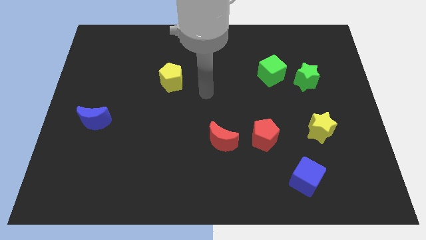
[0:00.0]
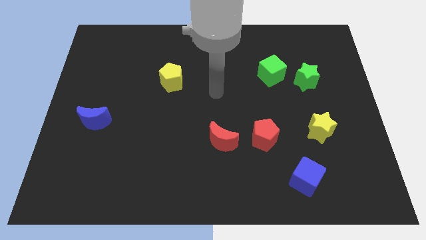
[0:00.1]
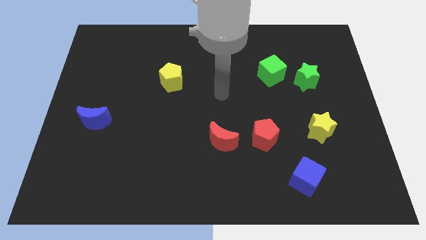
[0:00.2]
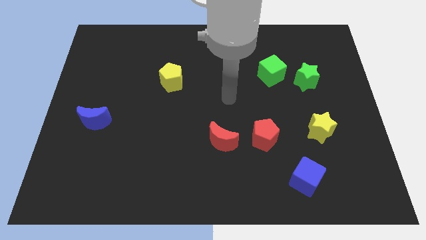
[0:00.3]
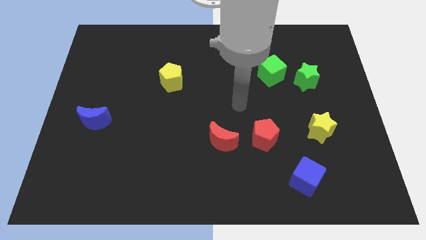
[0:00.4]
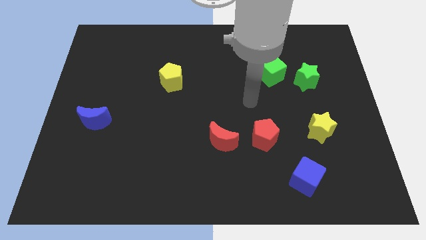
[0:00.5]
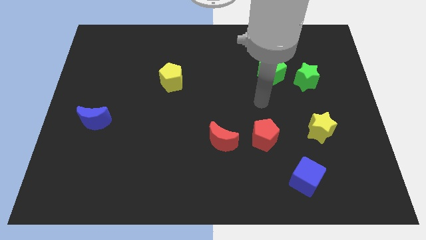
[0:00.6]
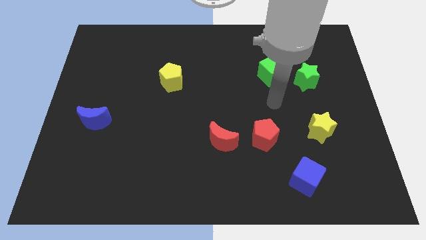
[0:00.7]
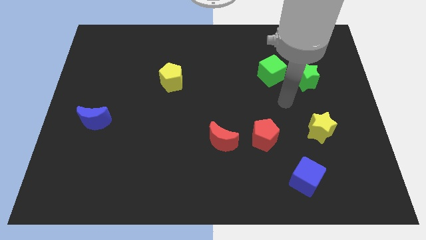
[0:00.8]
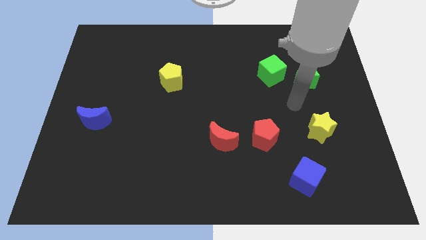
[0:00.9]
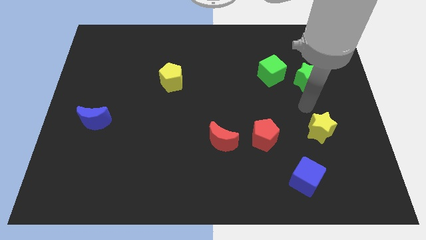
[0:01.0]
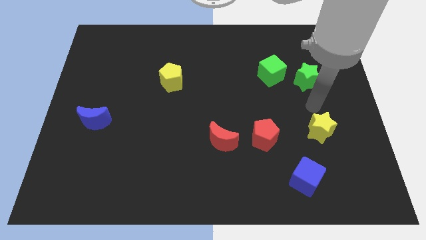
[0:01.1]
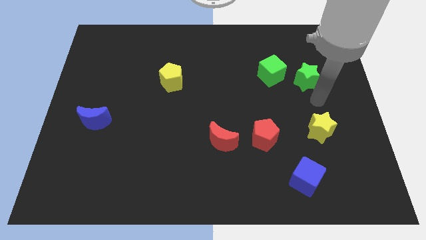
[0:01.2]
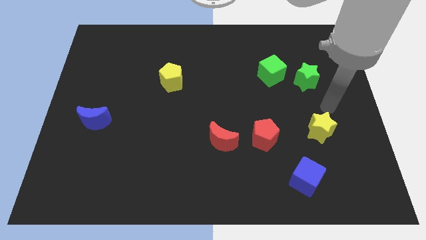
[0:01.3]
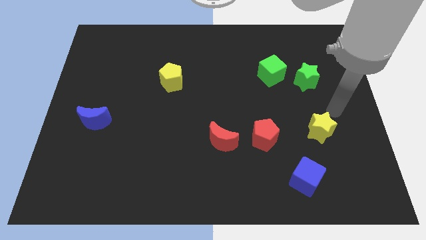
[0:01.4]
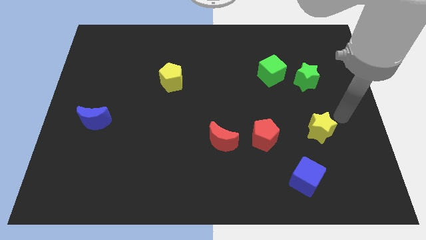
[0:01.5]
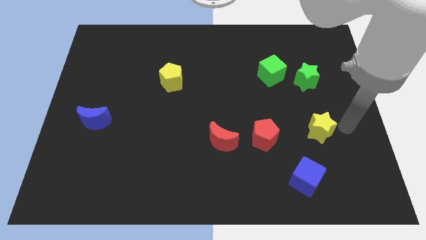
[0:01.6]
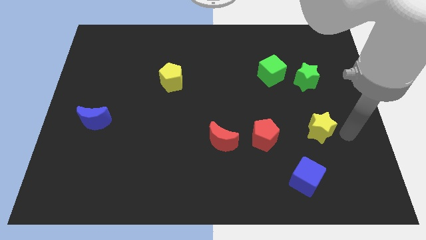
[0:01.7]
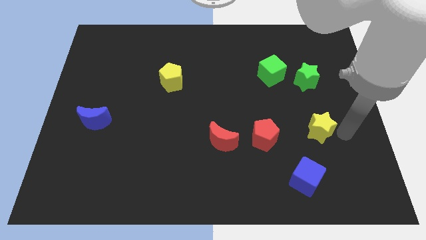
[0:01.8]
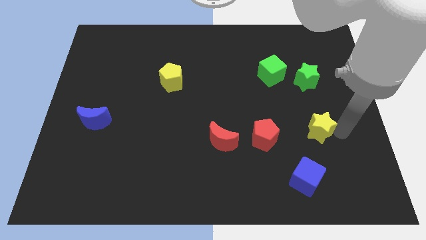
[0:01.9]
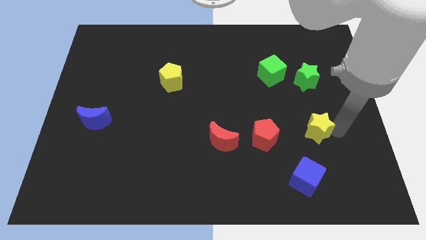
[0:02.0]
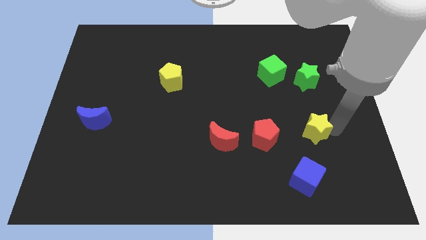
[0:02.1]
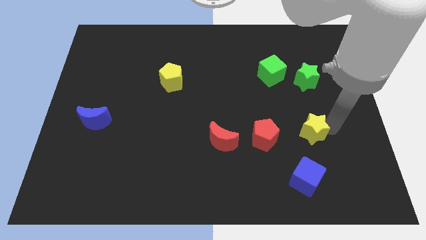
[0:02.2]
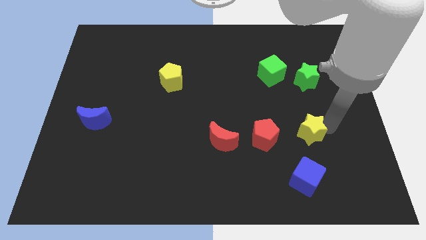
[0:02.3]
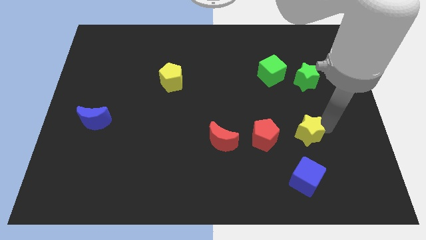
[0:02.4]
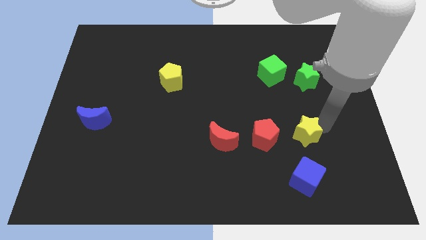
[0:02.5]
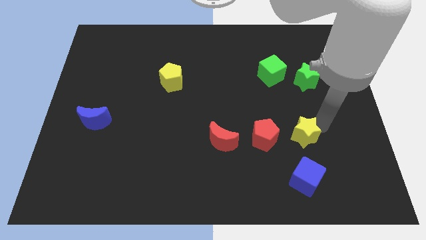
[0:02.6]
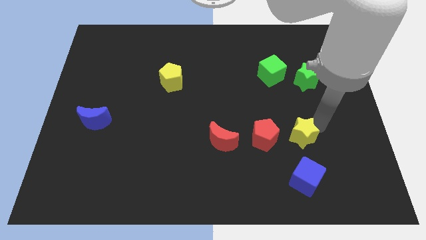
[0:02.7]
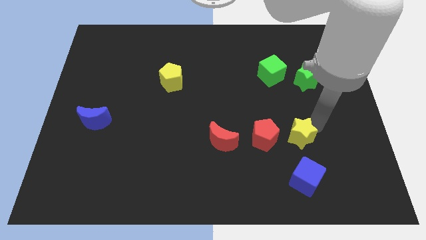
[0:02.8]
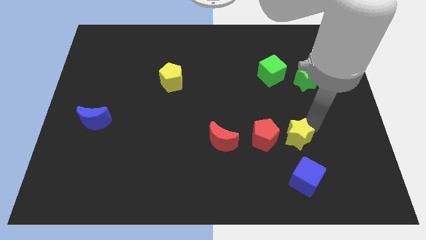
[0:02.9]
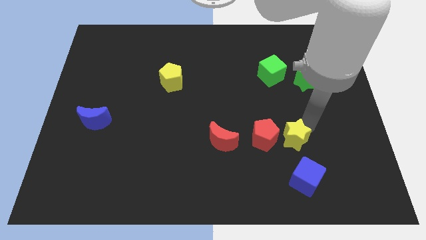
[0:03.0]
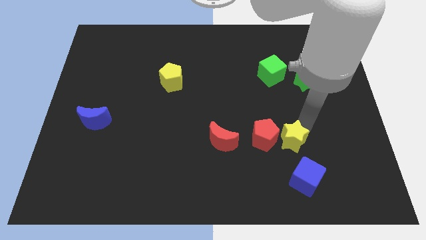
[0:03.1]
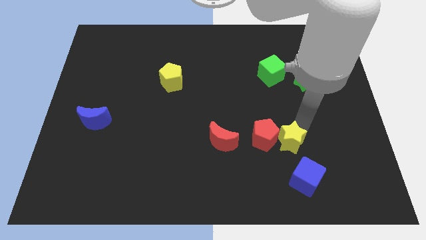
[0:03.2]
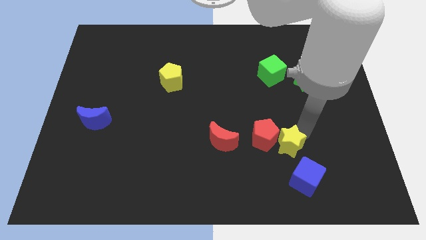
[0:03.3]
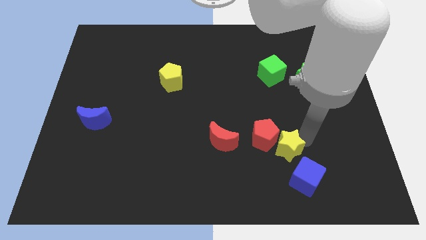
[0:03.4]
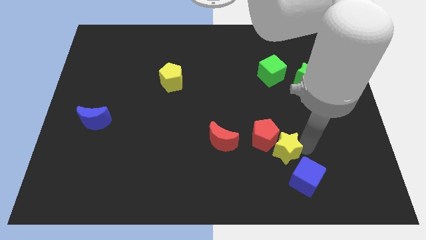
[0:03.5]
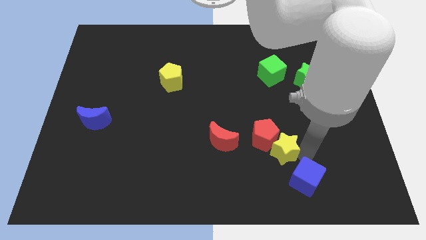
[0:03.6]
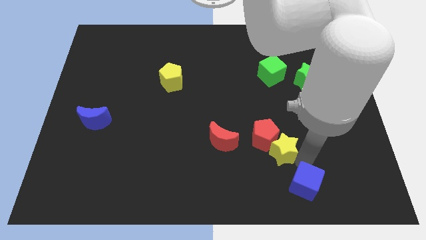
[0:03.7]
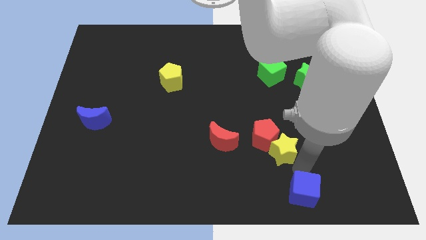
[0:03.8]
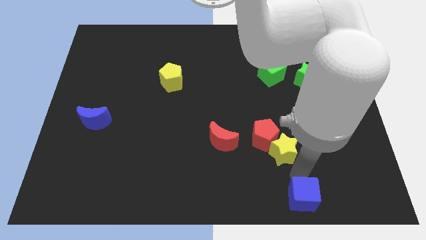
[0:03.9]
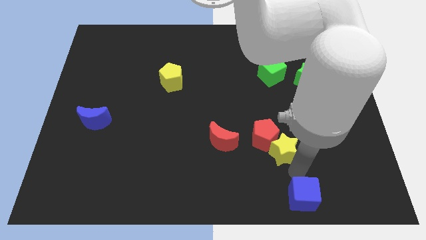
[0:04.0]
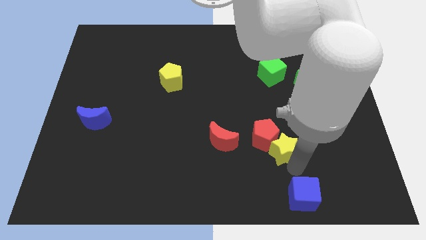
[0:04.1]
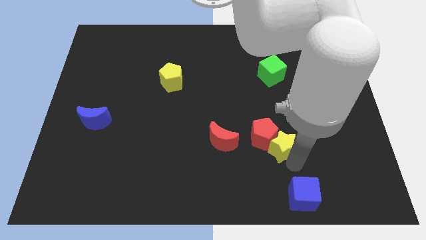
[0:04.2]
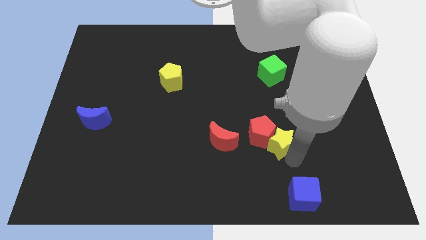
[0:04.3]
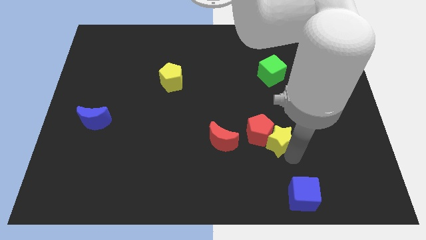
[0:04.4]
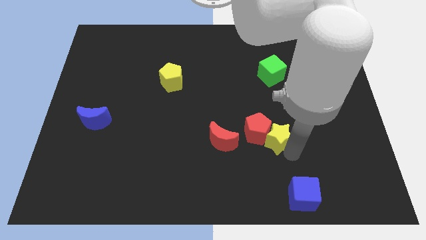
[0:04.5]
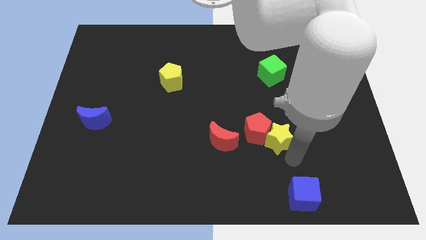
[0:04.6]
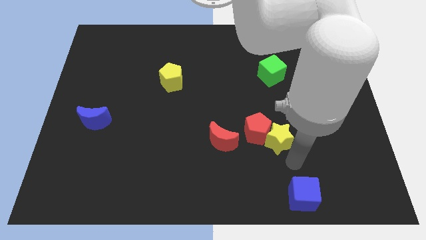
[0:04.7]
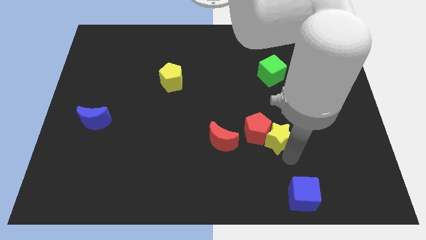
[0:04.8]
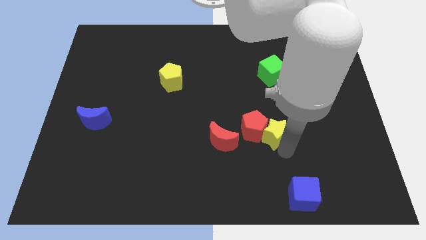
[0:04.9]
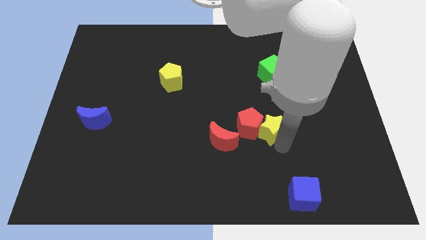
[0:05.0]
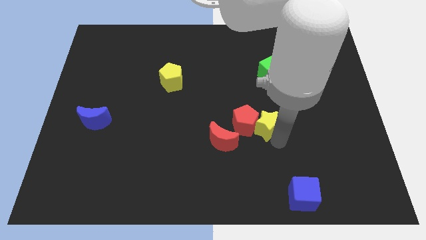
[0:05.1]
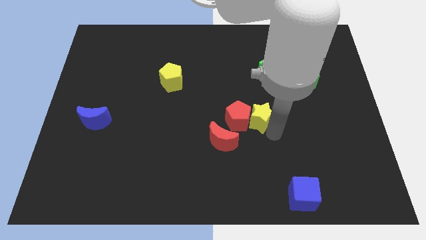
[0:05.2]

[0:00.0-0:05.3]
push the yellow star to the center

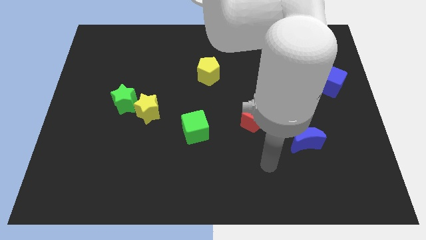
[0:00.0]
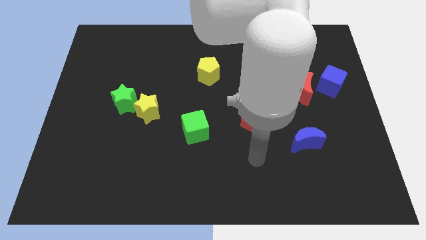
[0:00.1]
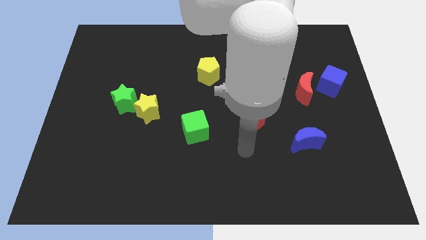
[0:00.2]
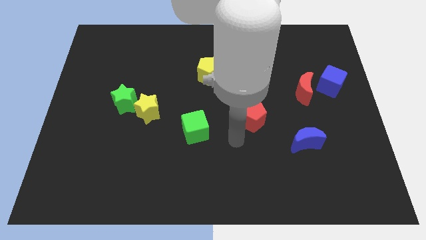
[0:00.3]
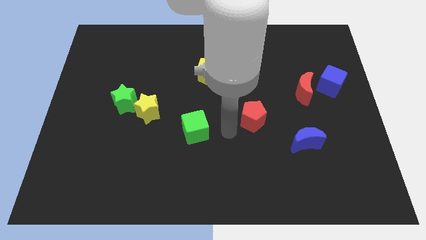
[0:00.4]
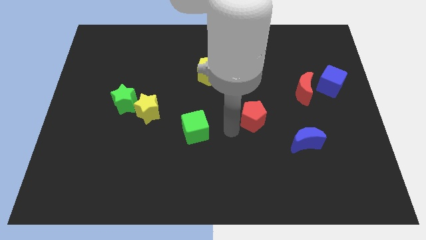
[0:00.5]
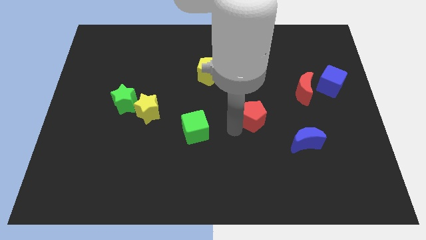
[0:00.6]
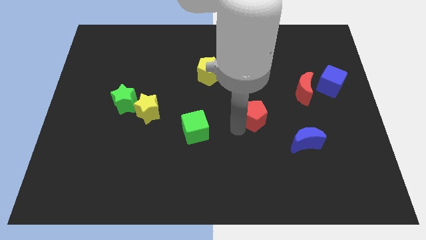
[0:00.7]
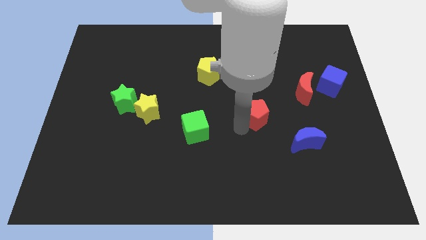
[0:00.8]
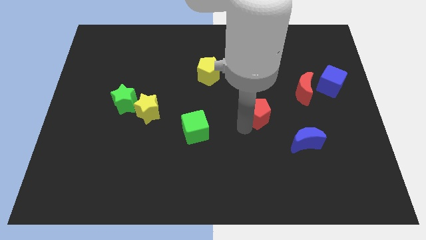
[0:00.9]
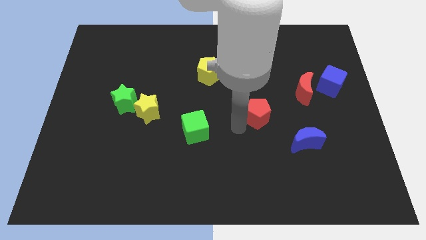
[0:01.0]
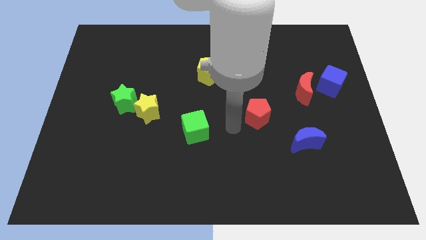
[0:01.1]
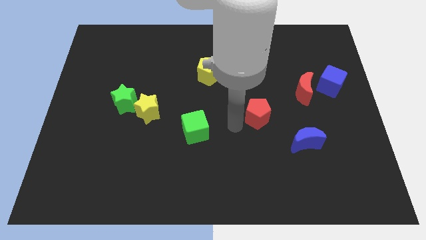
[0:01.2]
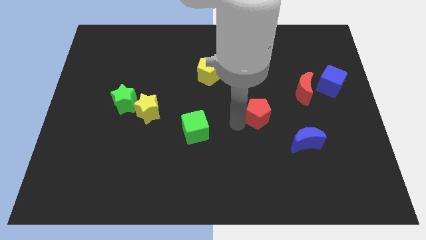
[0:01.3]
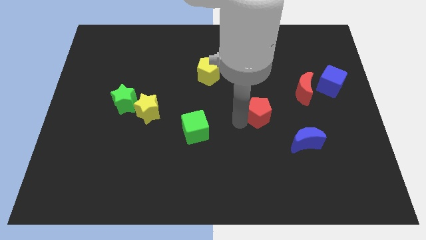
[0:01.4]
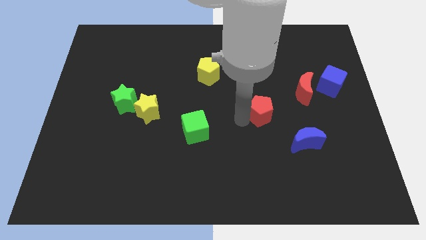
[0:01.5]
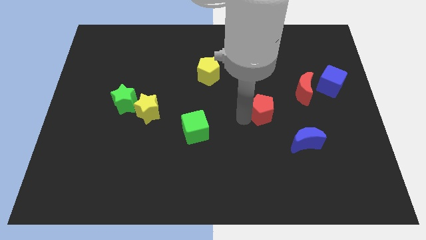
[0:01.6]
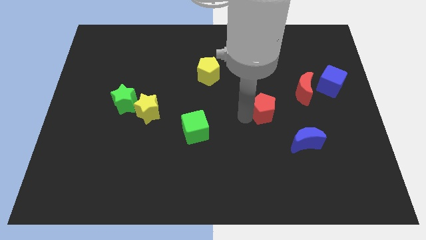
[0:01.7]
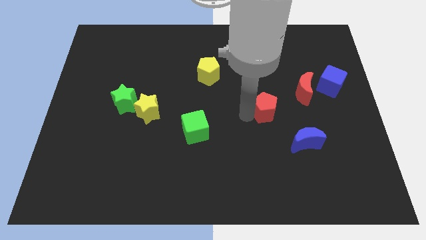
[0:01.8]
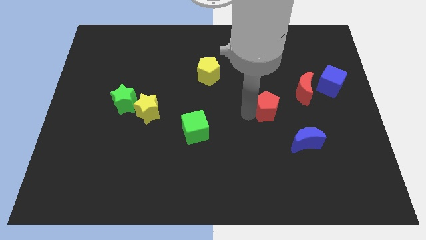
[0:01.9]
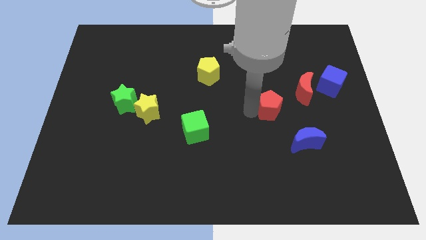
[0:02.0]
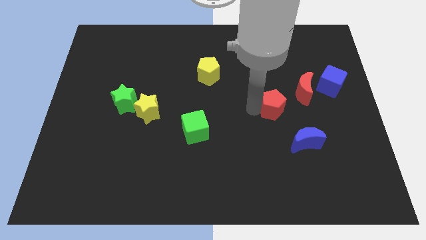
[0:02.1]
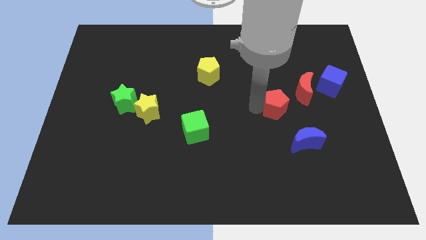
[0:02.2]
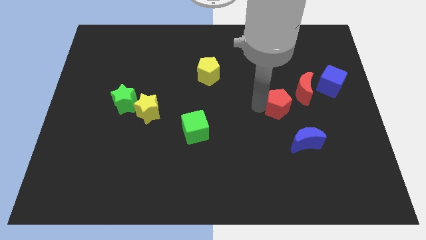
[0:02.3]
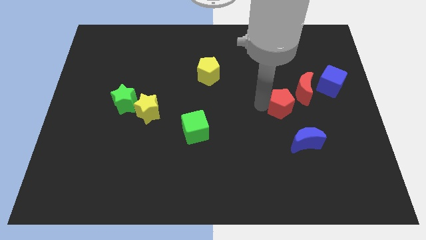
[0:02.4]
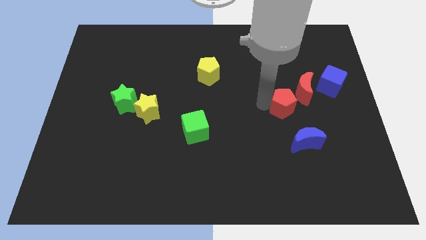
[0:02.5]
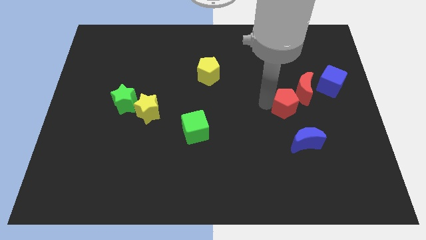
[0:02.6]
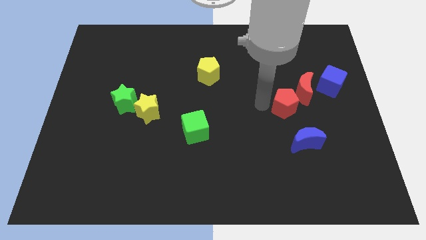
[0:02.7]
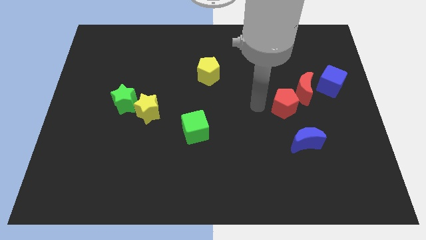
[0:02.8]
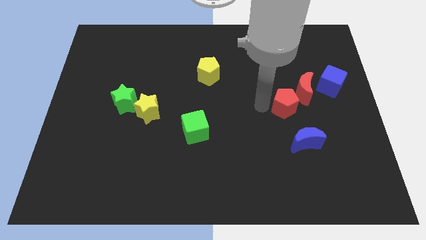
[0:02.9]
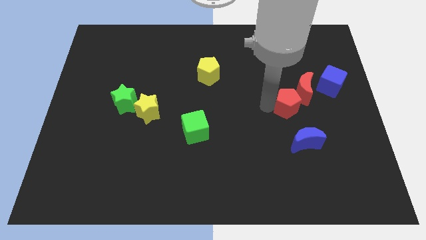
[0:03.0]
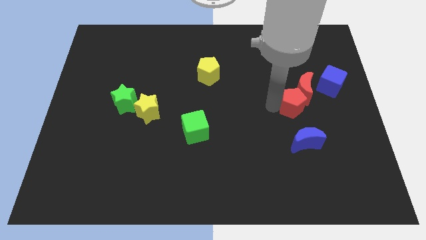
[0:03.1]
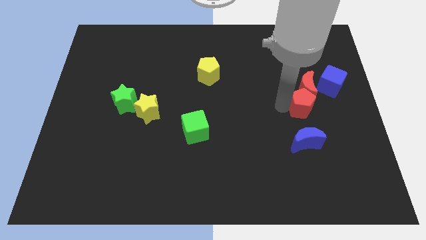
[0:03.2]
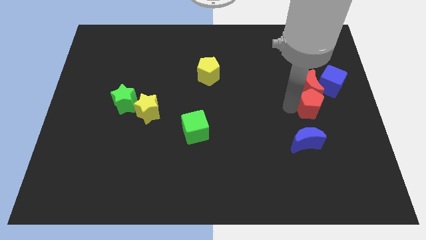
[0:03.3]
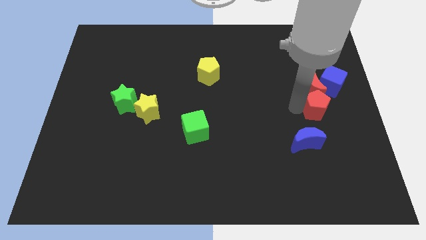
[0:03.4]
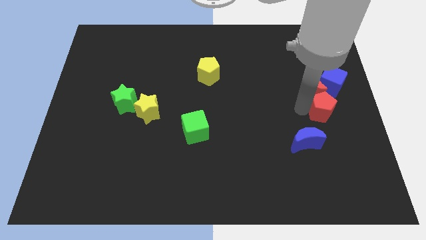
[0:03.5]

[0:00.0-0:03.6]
push the red pentagon to the right side
